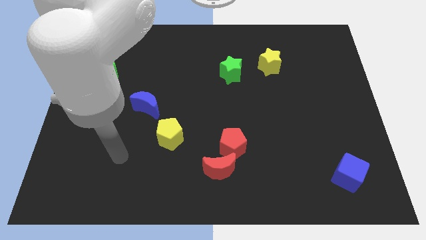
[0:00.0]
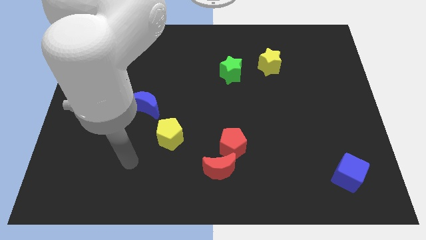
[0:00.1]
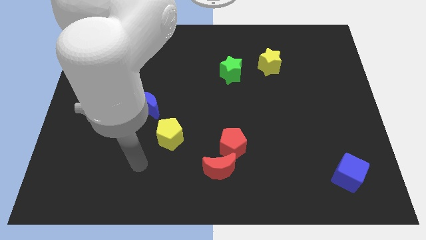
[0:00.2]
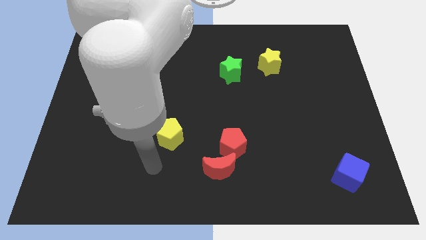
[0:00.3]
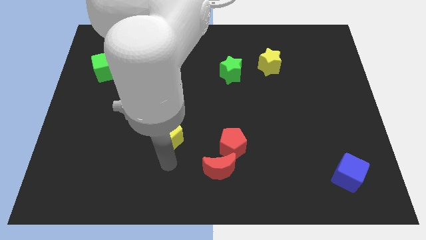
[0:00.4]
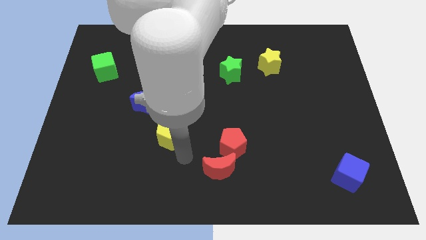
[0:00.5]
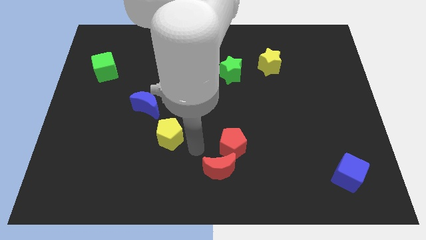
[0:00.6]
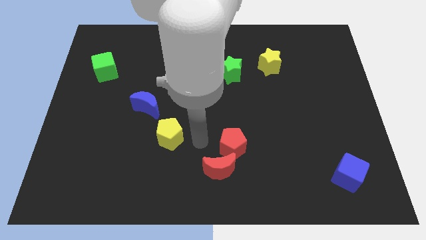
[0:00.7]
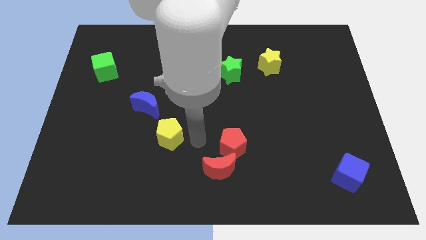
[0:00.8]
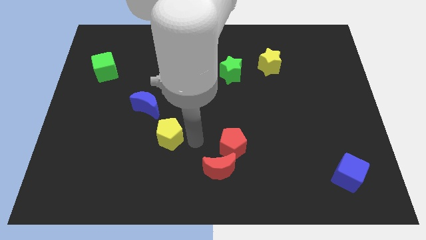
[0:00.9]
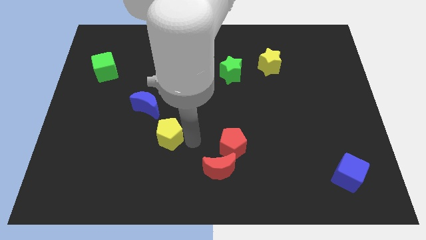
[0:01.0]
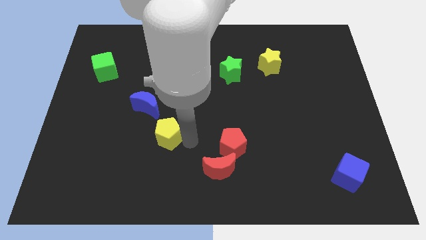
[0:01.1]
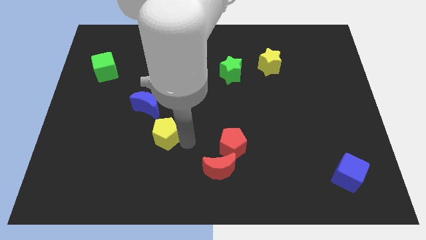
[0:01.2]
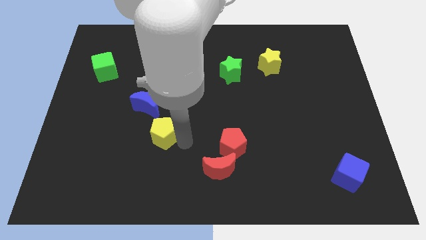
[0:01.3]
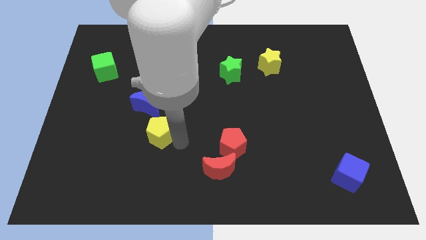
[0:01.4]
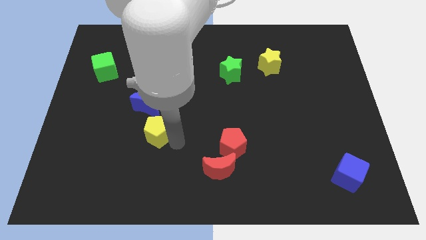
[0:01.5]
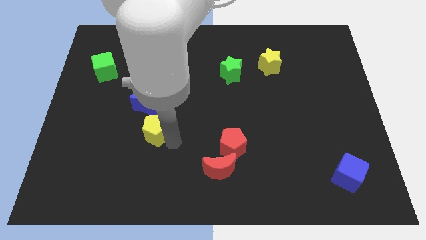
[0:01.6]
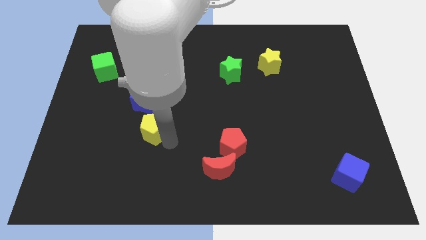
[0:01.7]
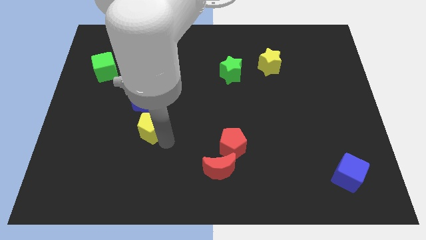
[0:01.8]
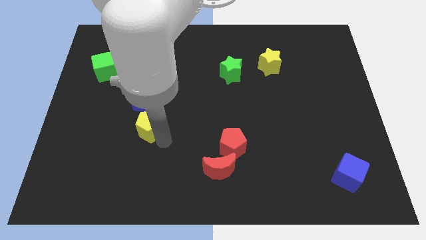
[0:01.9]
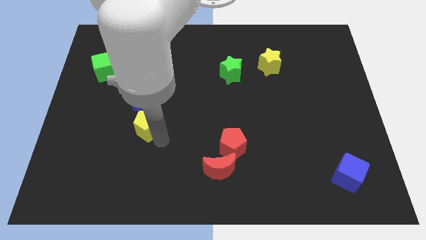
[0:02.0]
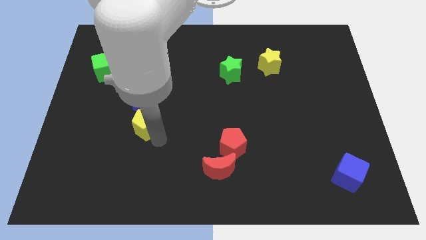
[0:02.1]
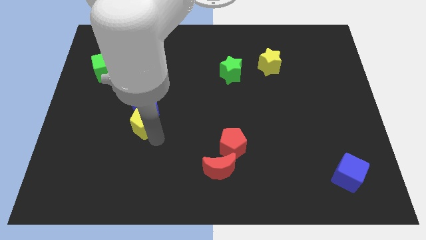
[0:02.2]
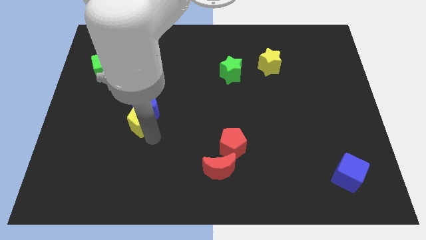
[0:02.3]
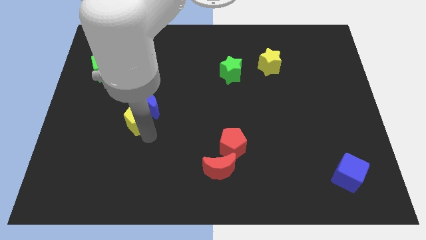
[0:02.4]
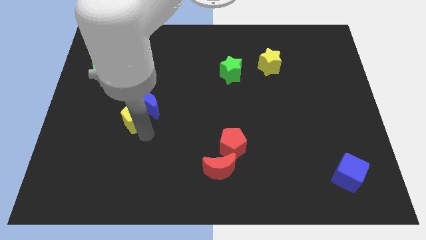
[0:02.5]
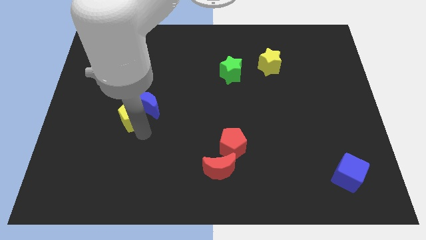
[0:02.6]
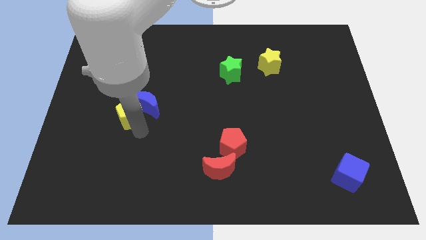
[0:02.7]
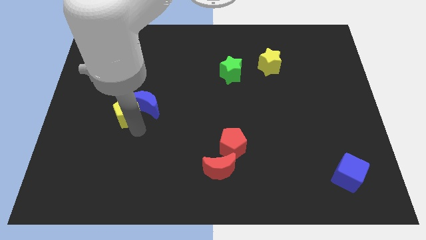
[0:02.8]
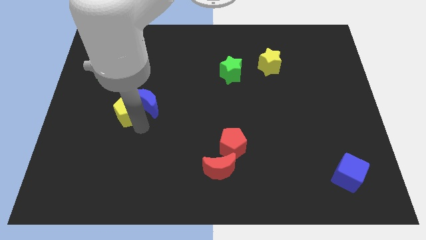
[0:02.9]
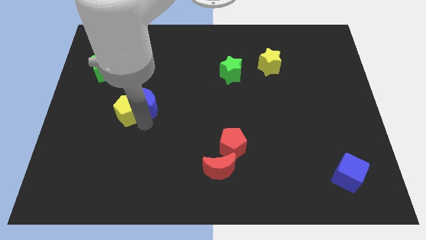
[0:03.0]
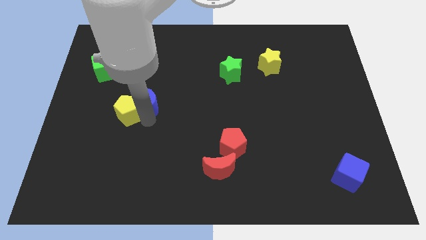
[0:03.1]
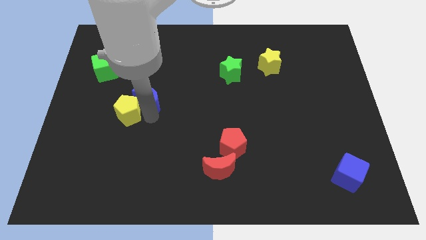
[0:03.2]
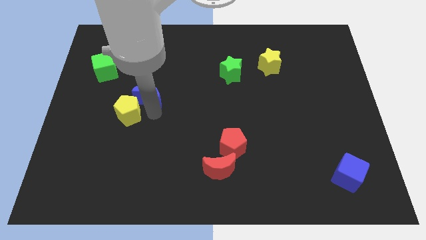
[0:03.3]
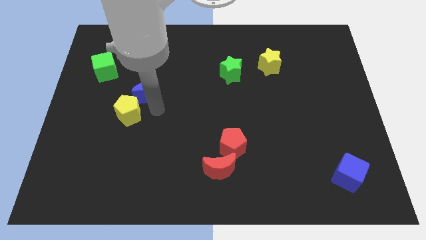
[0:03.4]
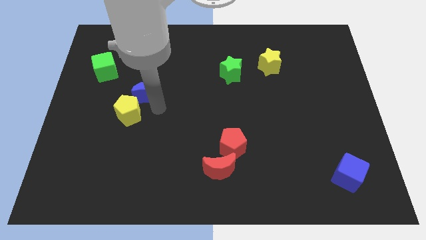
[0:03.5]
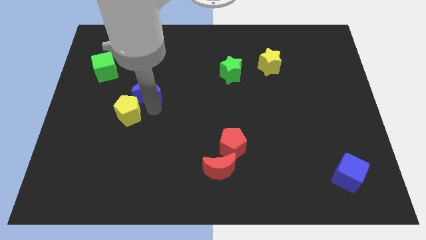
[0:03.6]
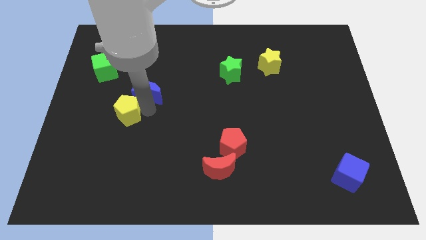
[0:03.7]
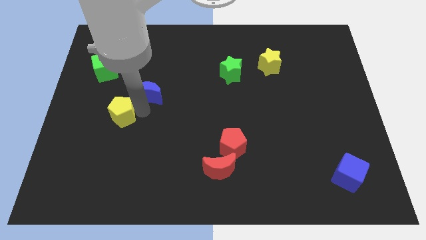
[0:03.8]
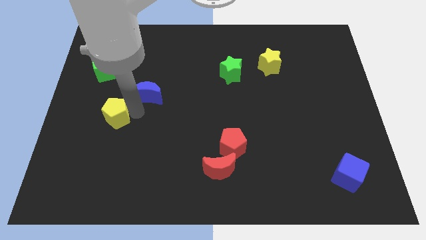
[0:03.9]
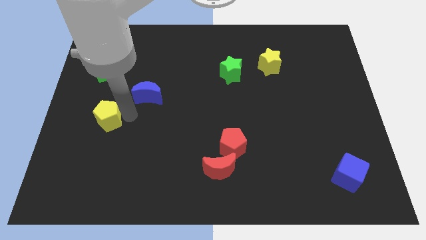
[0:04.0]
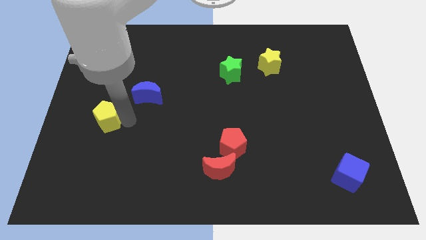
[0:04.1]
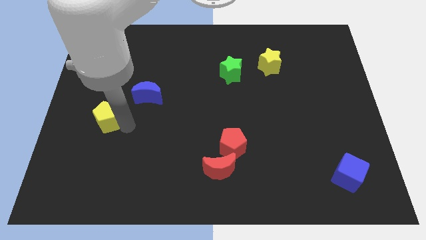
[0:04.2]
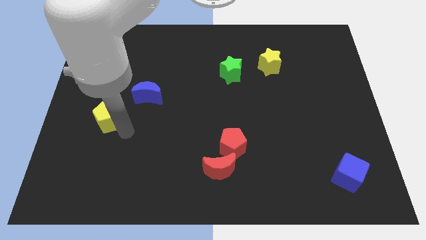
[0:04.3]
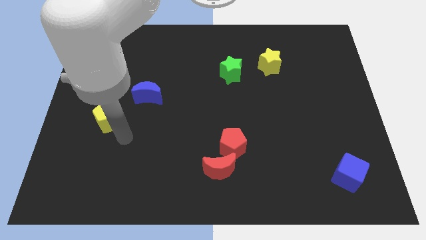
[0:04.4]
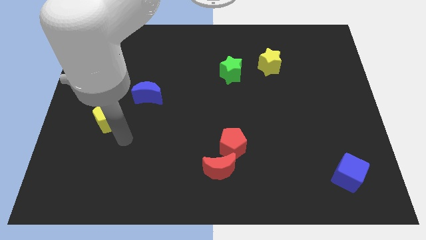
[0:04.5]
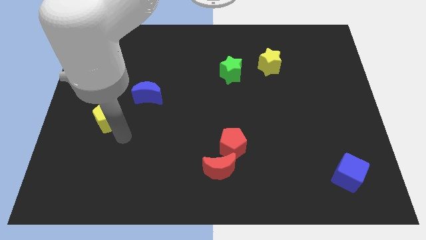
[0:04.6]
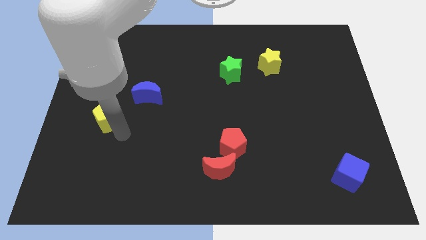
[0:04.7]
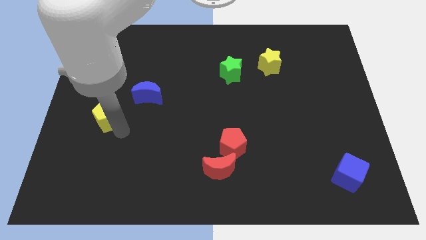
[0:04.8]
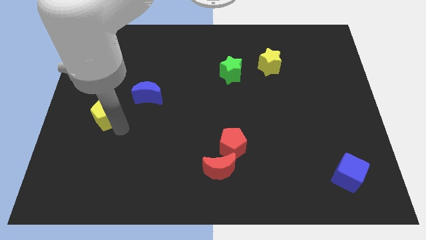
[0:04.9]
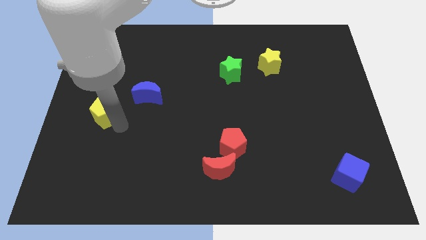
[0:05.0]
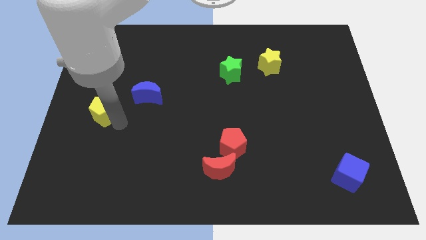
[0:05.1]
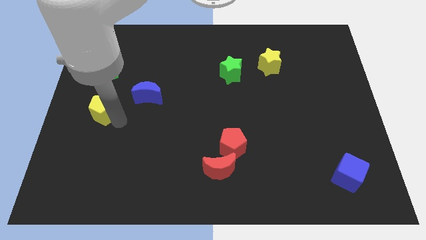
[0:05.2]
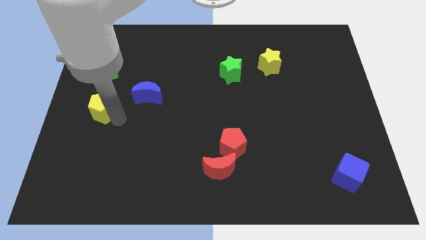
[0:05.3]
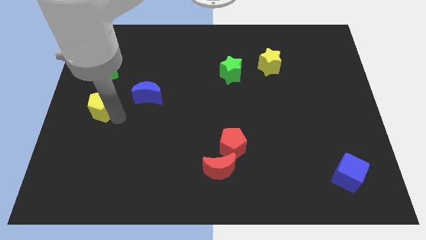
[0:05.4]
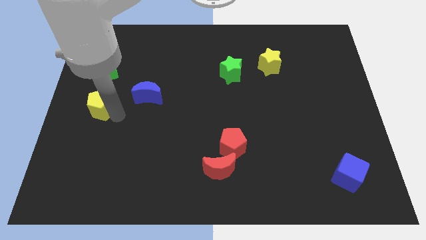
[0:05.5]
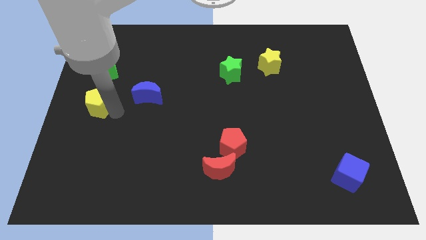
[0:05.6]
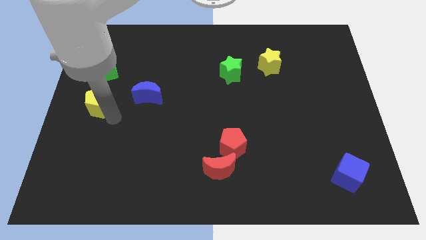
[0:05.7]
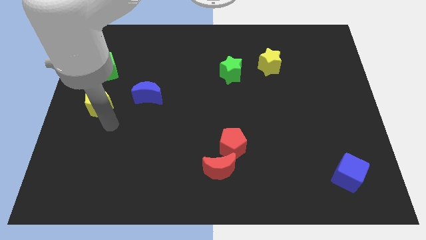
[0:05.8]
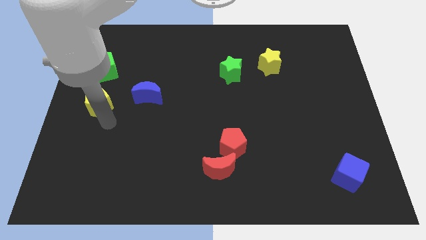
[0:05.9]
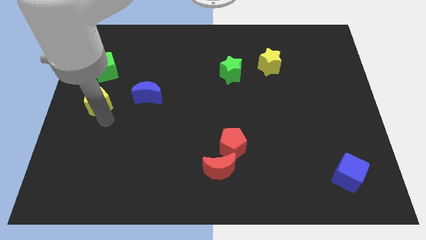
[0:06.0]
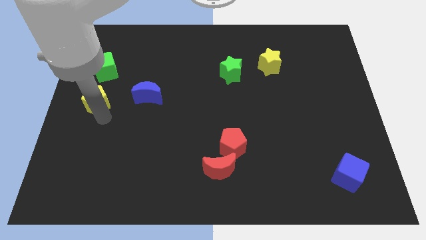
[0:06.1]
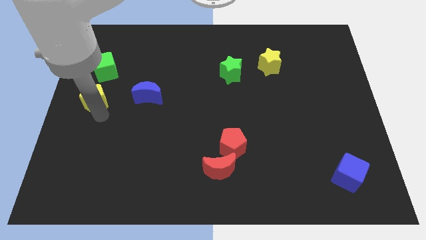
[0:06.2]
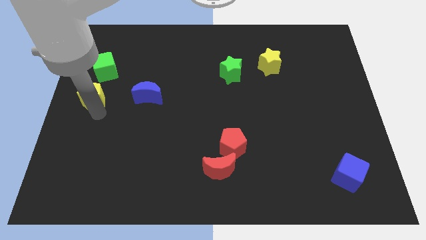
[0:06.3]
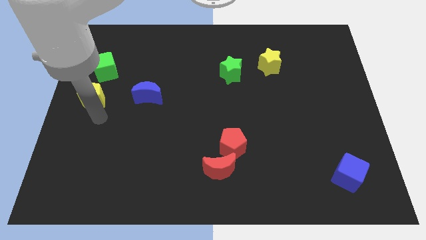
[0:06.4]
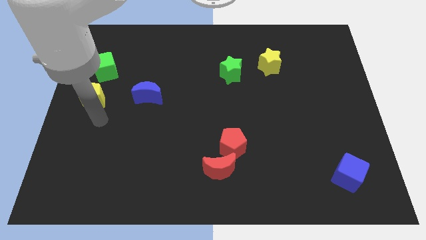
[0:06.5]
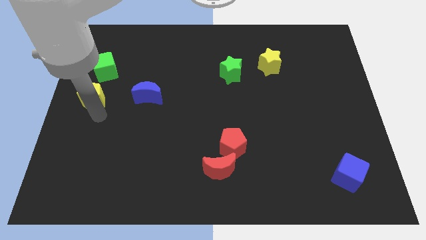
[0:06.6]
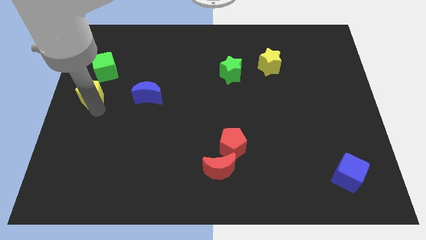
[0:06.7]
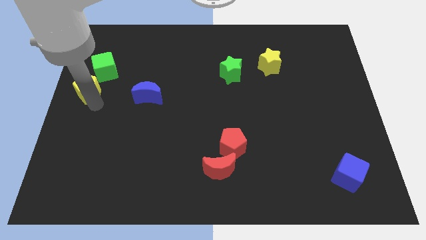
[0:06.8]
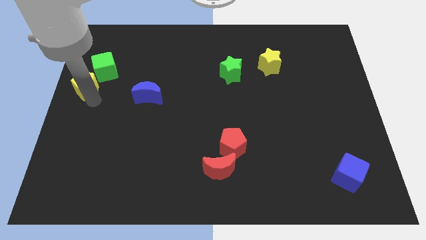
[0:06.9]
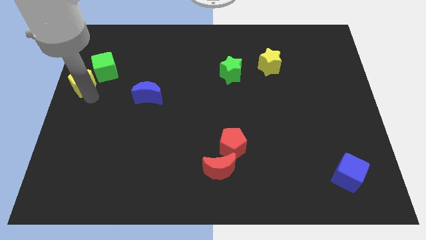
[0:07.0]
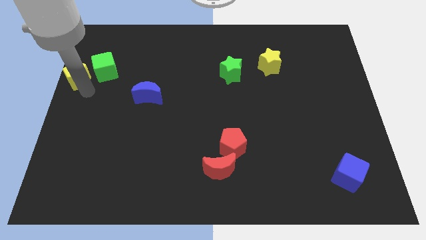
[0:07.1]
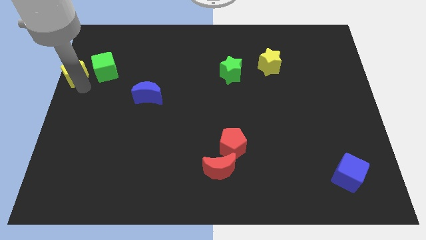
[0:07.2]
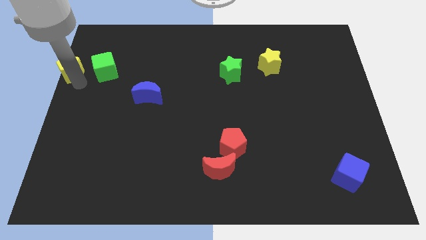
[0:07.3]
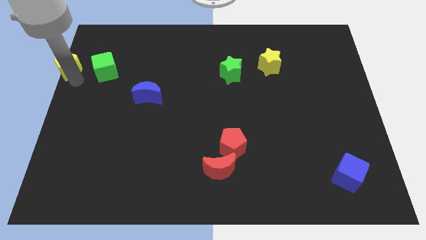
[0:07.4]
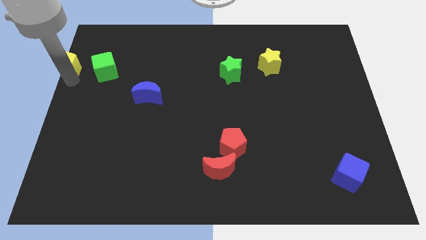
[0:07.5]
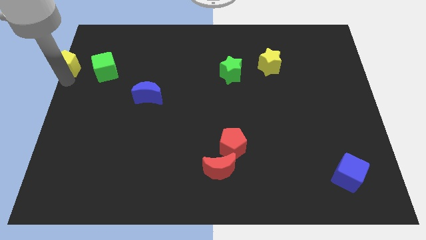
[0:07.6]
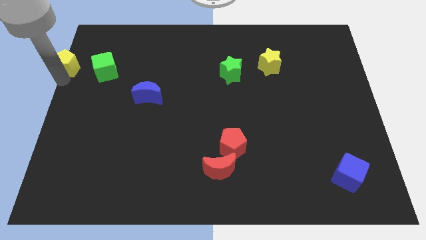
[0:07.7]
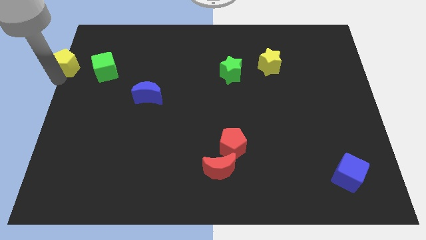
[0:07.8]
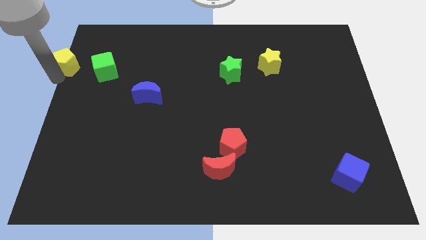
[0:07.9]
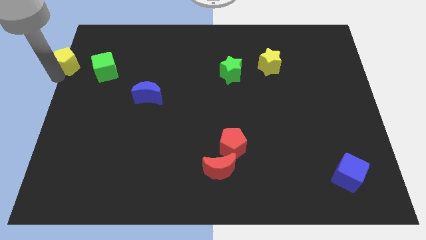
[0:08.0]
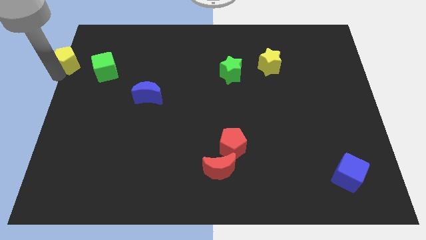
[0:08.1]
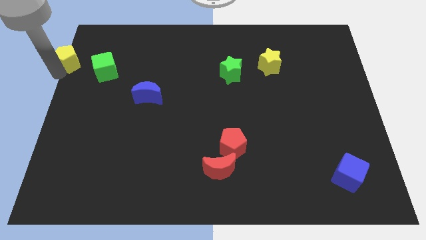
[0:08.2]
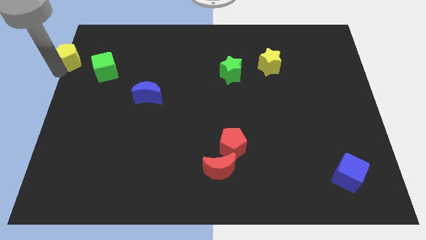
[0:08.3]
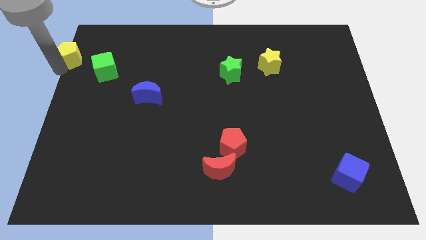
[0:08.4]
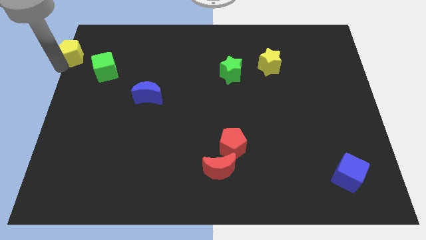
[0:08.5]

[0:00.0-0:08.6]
put the yellow pentagon to the top left
